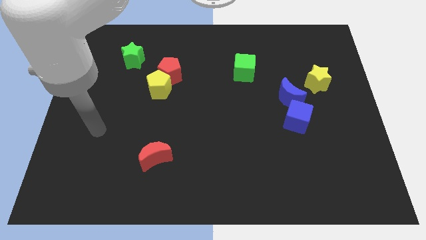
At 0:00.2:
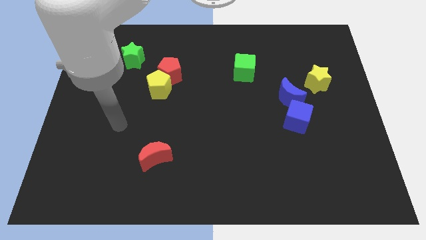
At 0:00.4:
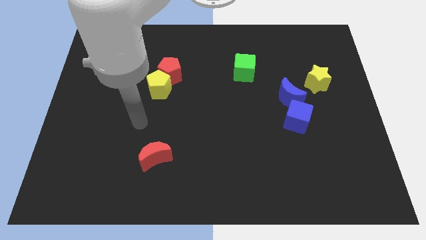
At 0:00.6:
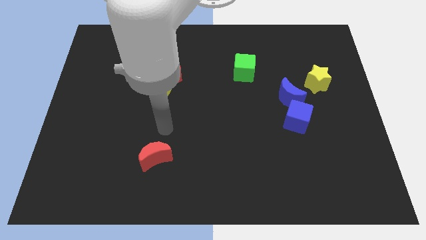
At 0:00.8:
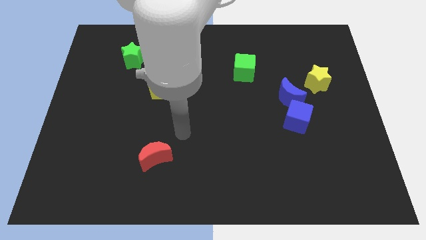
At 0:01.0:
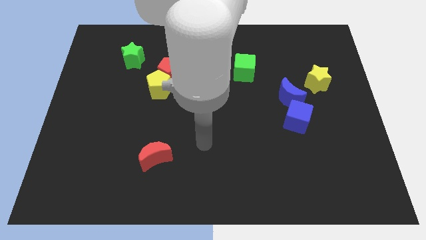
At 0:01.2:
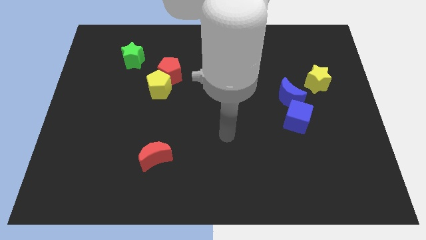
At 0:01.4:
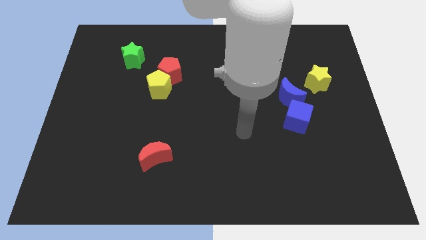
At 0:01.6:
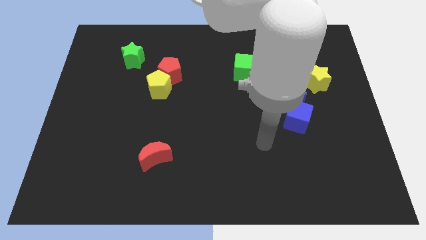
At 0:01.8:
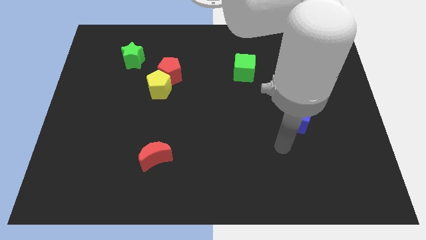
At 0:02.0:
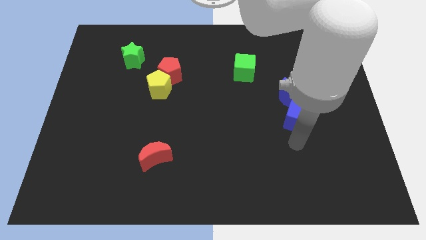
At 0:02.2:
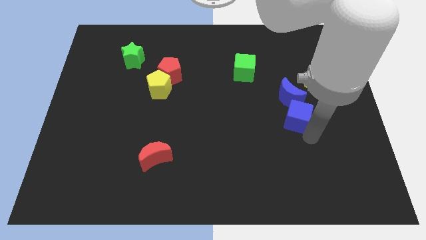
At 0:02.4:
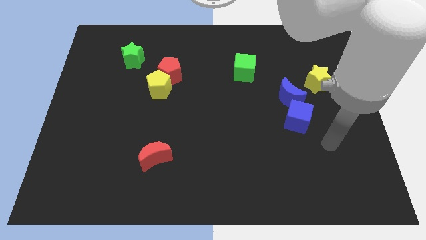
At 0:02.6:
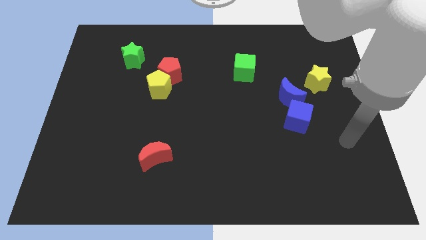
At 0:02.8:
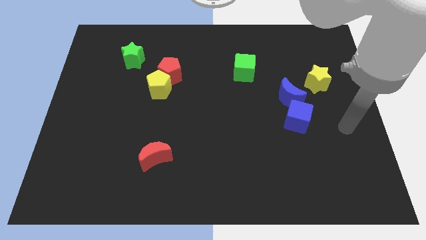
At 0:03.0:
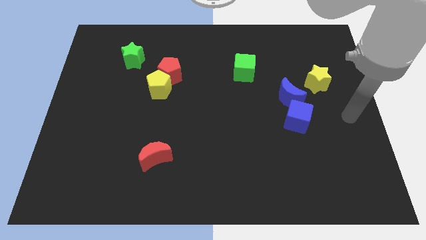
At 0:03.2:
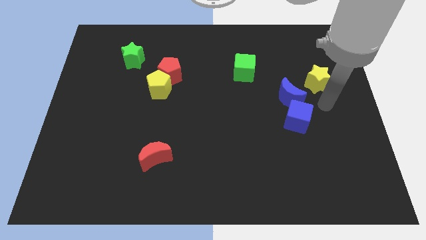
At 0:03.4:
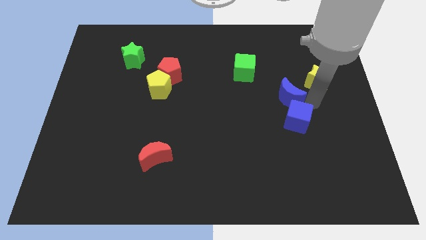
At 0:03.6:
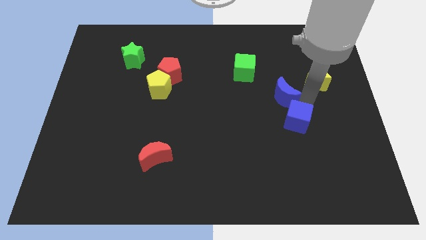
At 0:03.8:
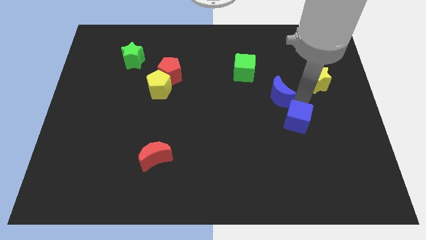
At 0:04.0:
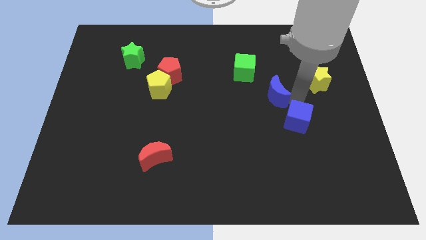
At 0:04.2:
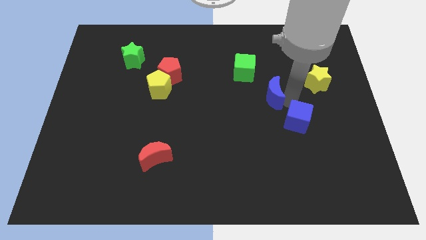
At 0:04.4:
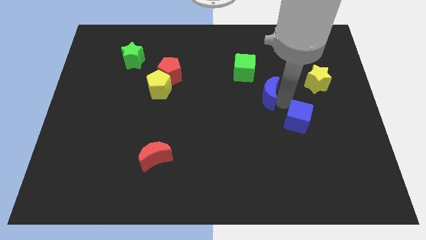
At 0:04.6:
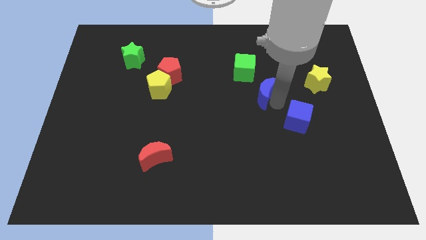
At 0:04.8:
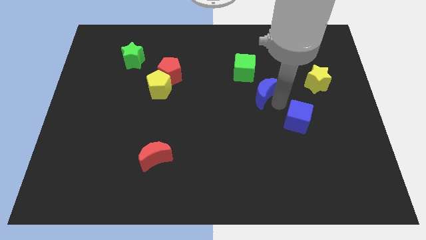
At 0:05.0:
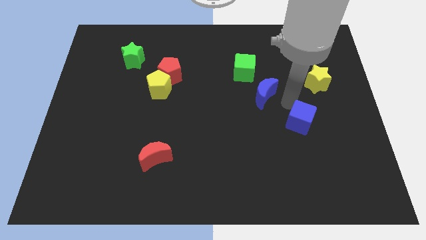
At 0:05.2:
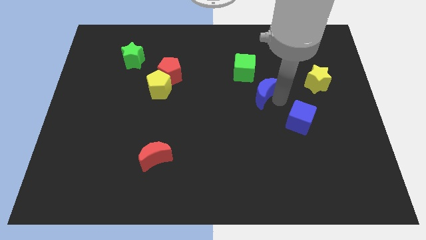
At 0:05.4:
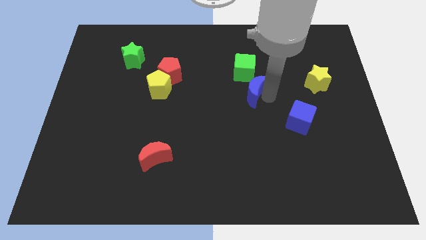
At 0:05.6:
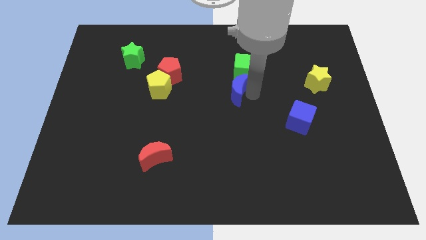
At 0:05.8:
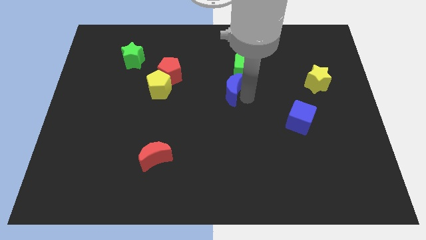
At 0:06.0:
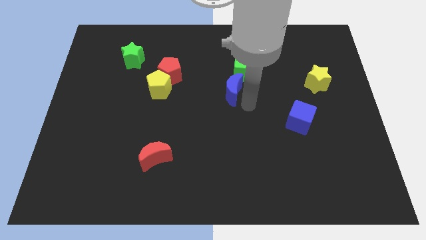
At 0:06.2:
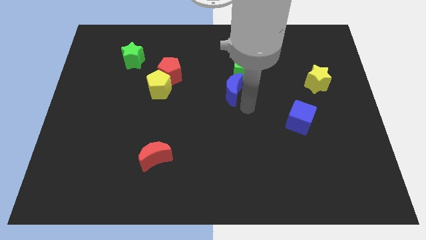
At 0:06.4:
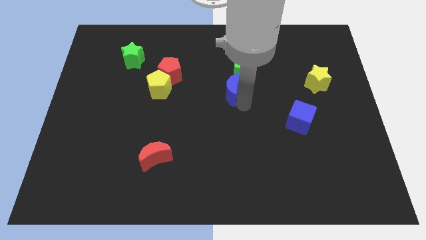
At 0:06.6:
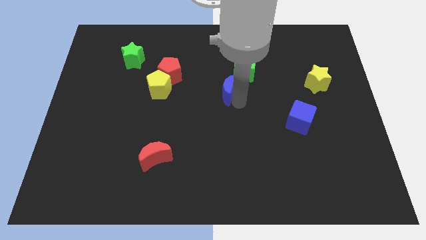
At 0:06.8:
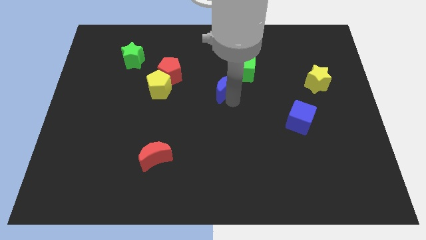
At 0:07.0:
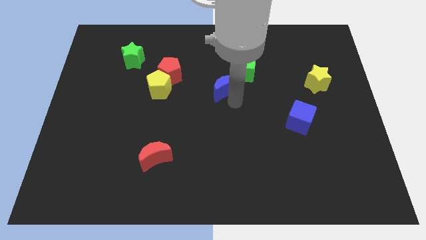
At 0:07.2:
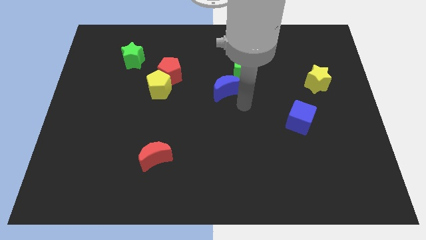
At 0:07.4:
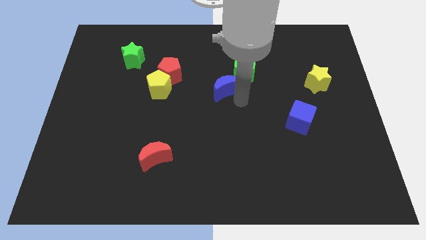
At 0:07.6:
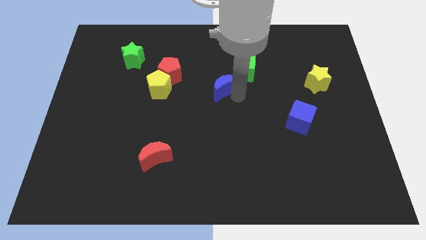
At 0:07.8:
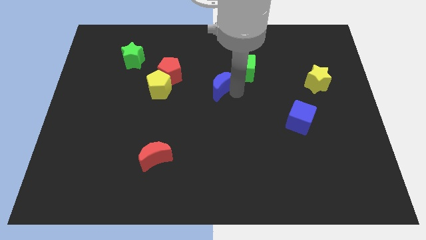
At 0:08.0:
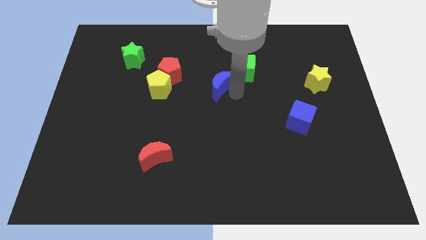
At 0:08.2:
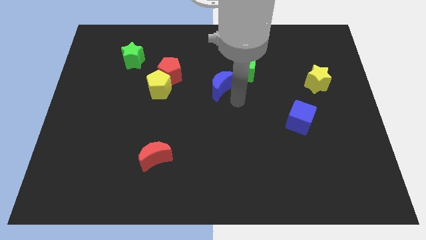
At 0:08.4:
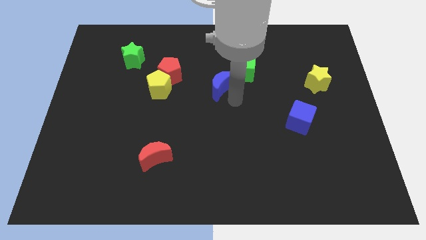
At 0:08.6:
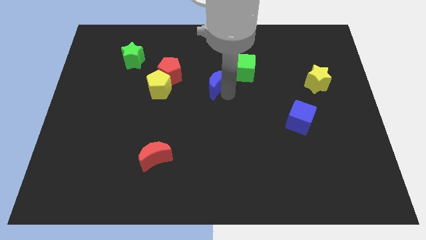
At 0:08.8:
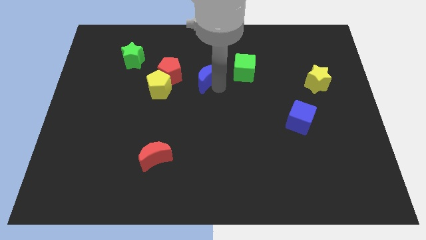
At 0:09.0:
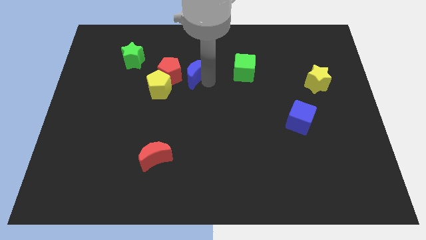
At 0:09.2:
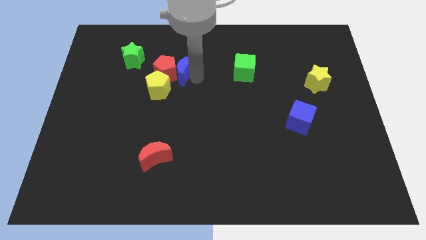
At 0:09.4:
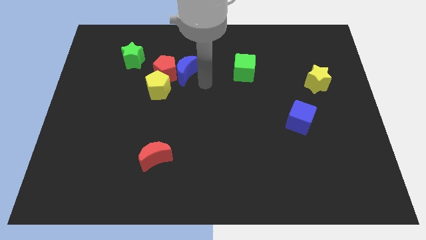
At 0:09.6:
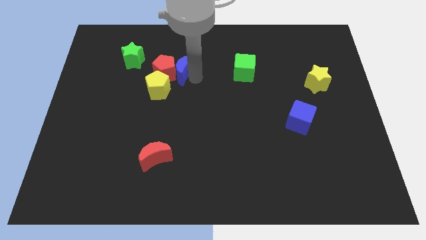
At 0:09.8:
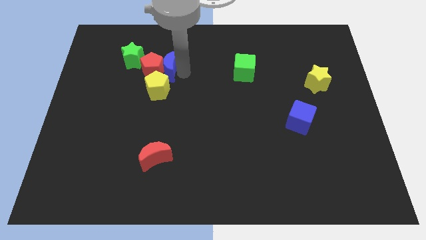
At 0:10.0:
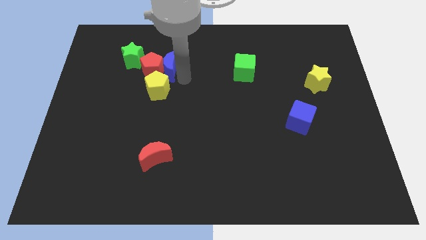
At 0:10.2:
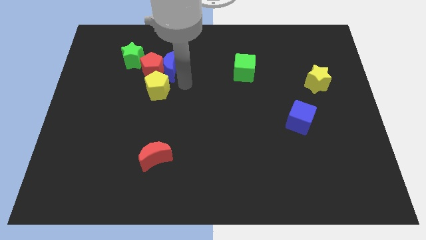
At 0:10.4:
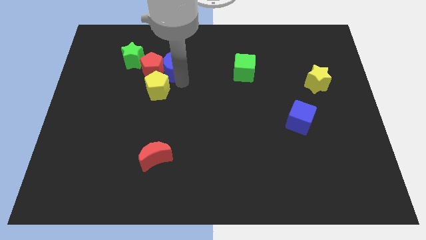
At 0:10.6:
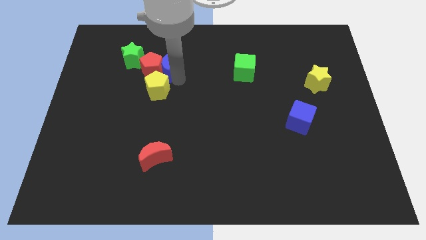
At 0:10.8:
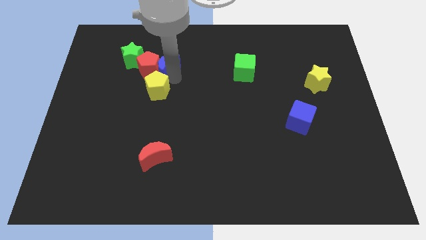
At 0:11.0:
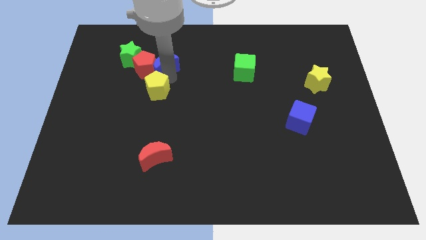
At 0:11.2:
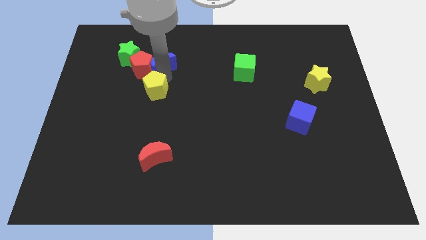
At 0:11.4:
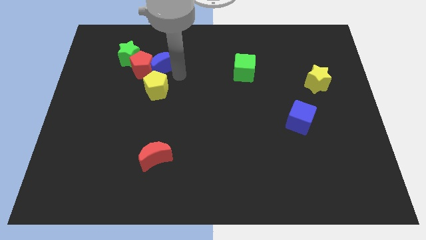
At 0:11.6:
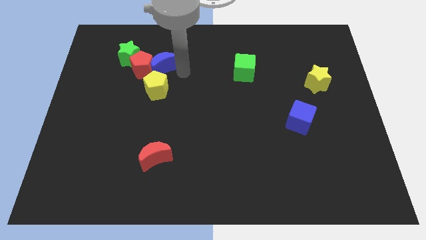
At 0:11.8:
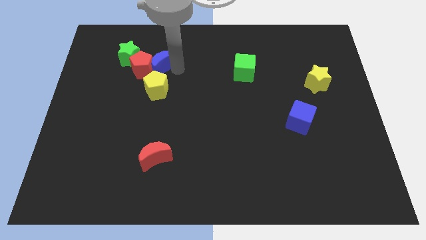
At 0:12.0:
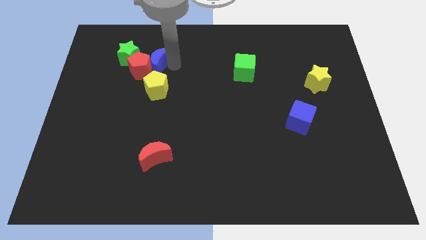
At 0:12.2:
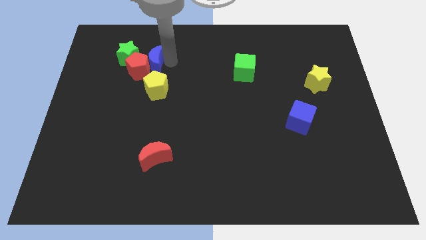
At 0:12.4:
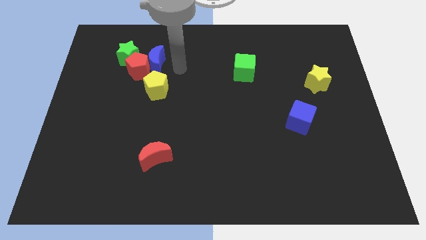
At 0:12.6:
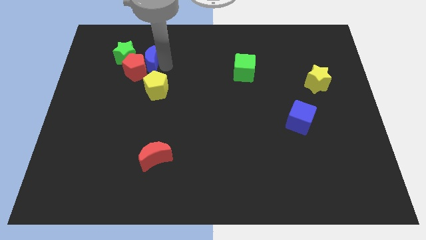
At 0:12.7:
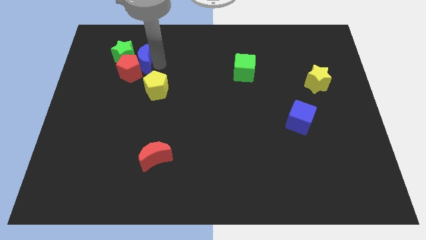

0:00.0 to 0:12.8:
push the blue moon towards the green star

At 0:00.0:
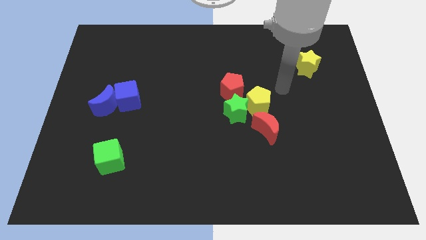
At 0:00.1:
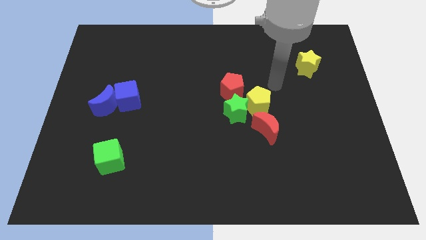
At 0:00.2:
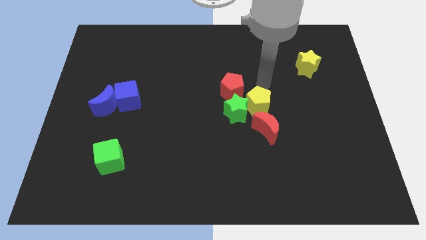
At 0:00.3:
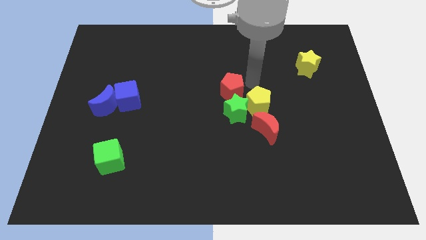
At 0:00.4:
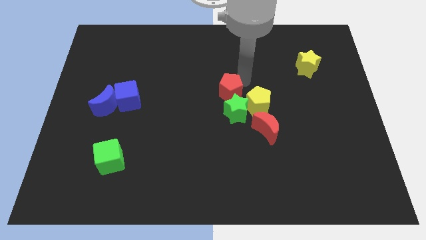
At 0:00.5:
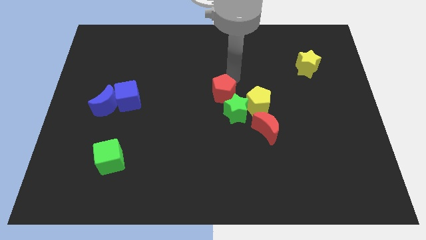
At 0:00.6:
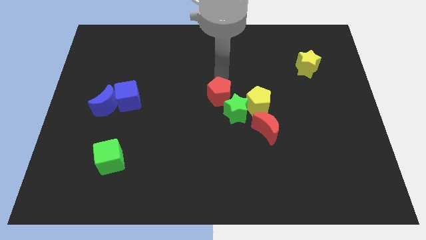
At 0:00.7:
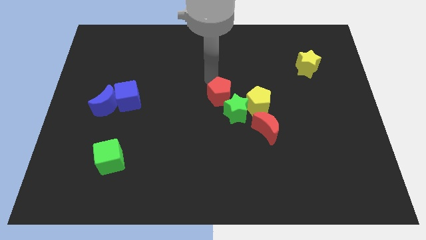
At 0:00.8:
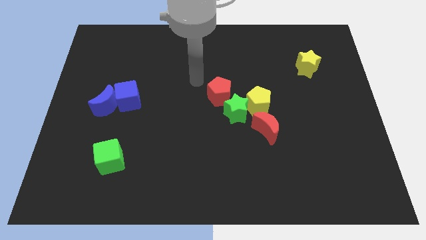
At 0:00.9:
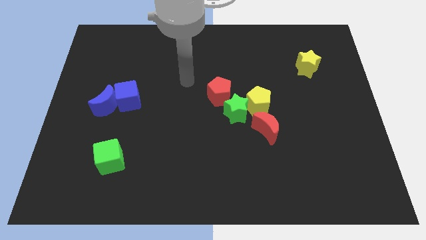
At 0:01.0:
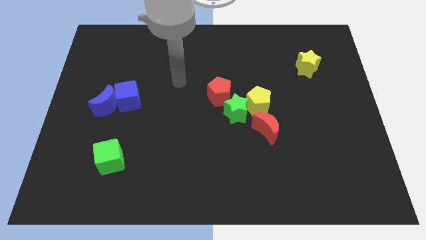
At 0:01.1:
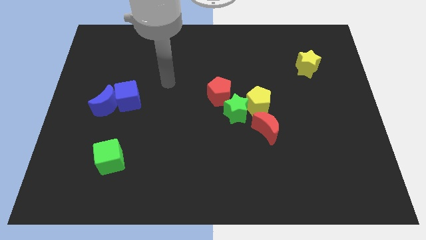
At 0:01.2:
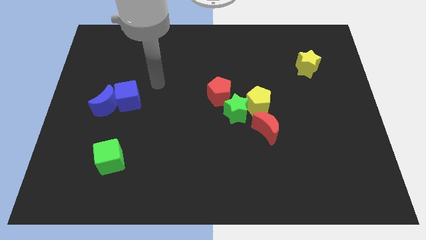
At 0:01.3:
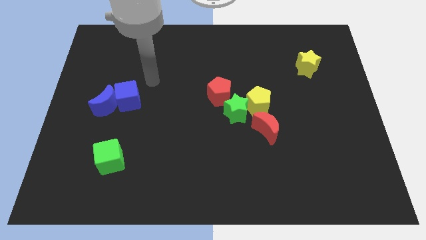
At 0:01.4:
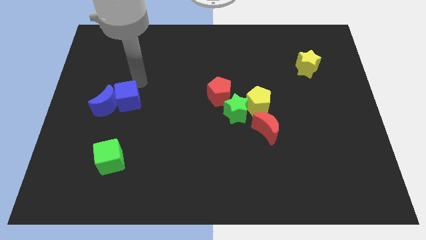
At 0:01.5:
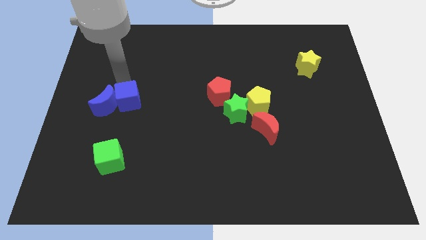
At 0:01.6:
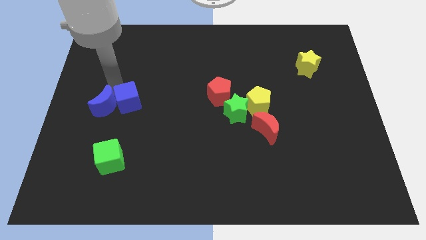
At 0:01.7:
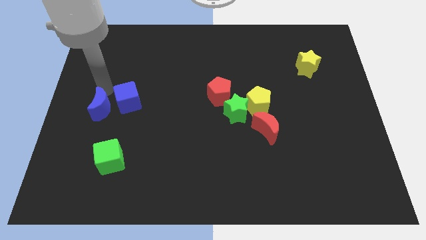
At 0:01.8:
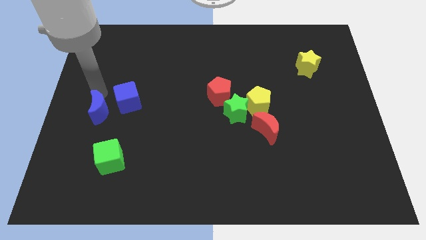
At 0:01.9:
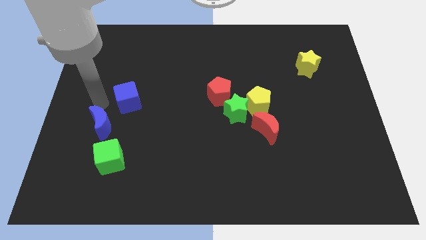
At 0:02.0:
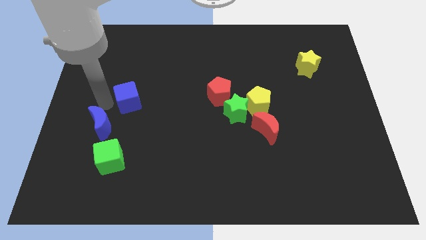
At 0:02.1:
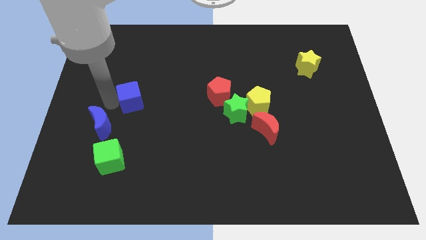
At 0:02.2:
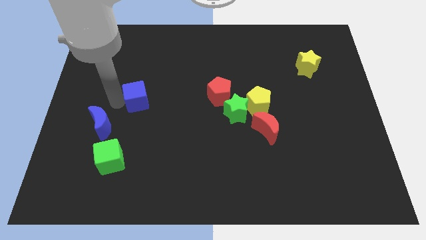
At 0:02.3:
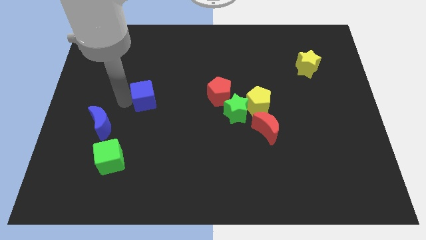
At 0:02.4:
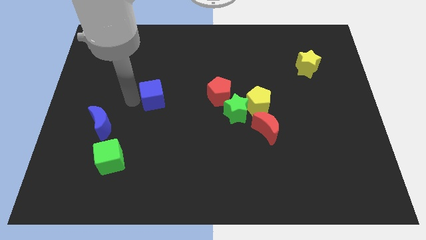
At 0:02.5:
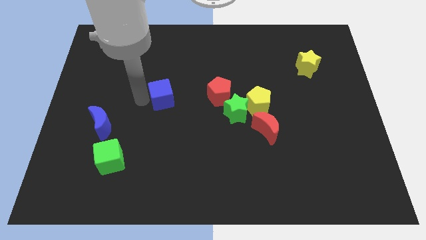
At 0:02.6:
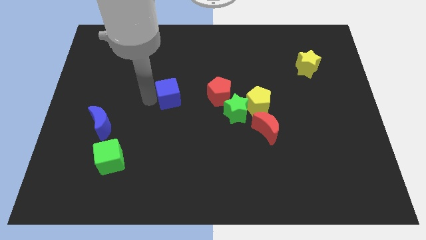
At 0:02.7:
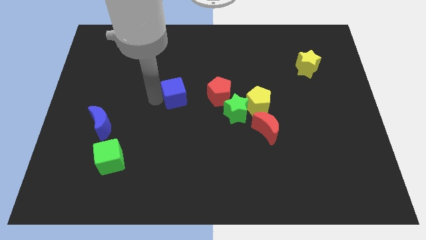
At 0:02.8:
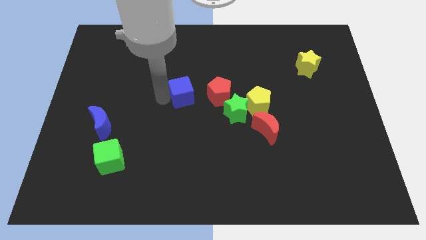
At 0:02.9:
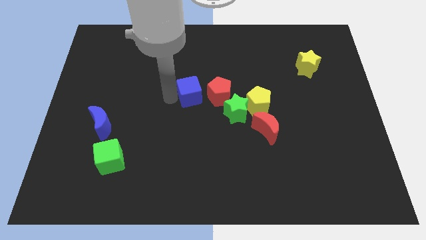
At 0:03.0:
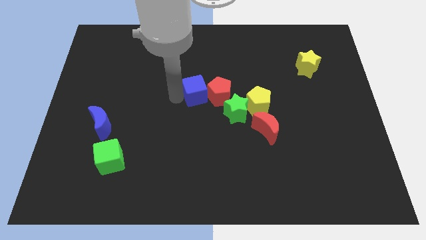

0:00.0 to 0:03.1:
slide the blue cube next to the red pentagon
